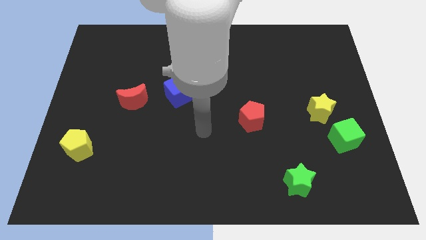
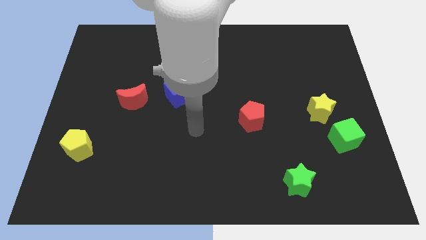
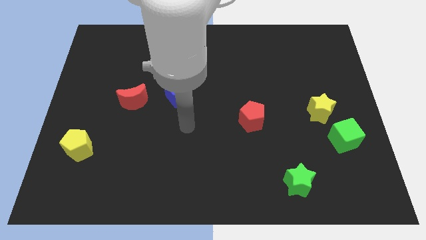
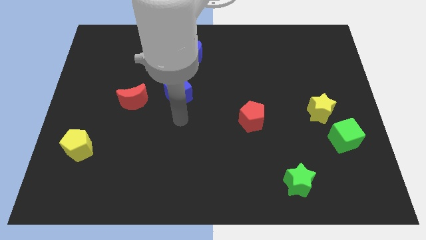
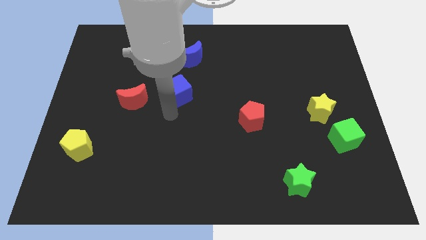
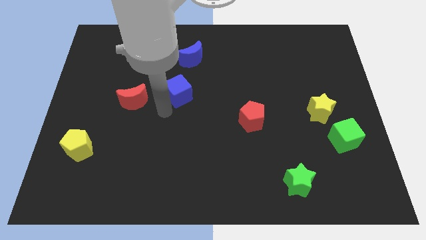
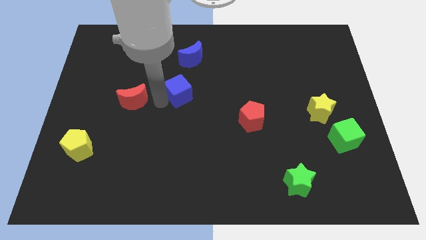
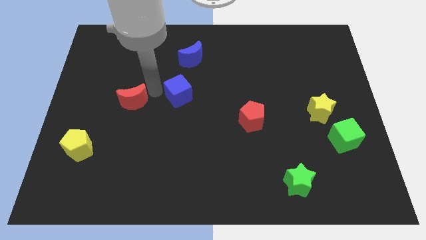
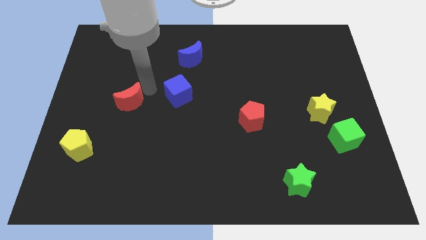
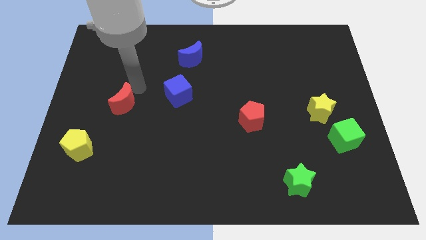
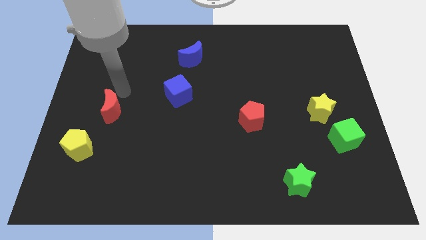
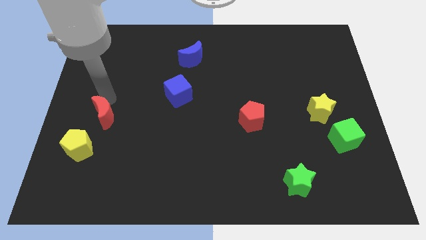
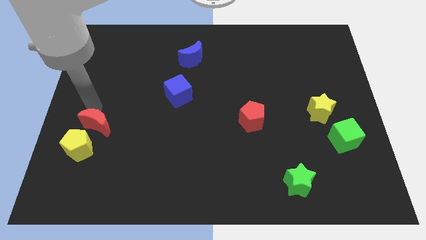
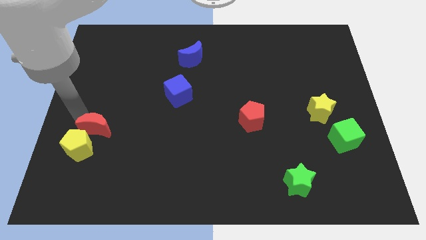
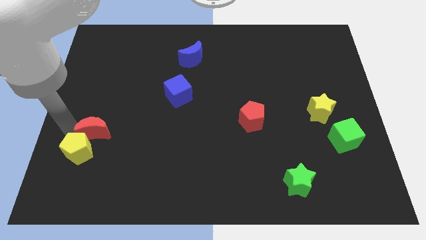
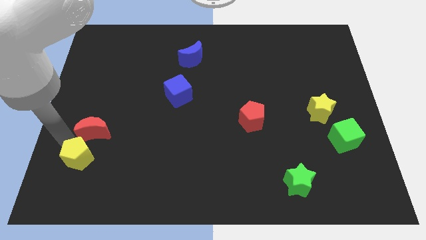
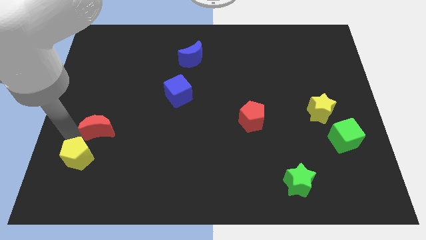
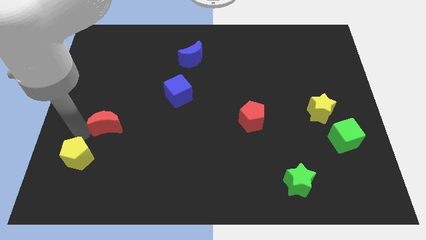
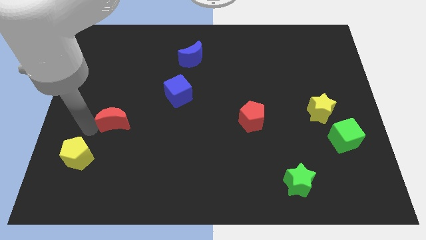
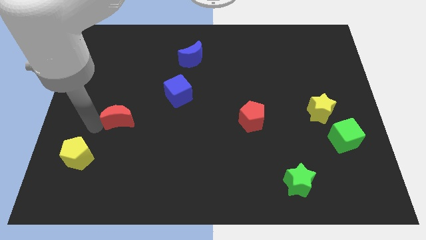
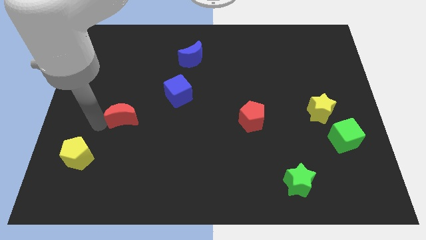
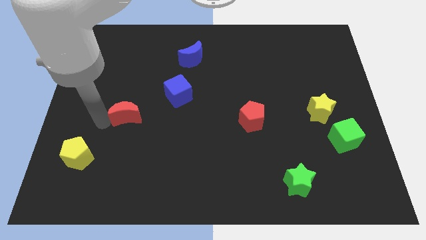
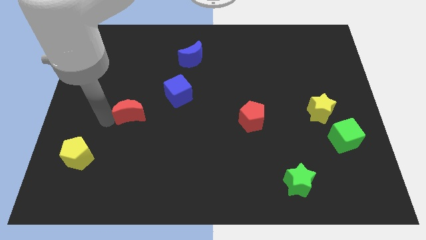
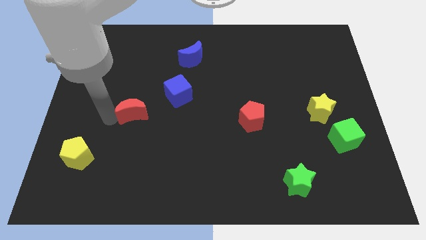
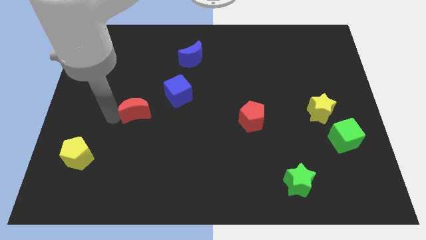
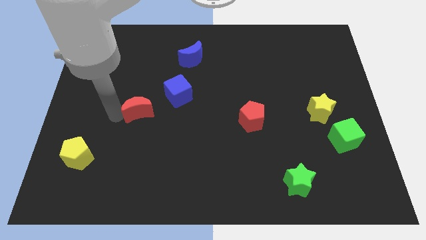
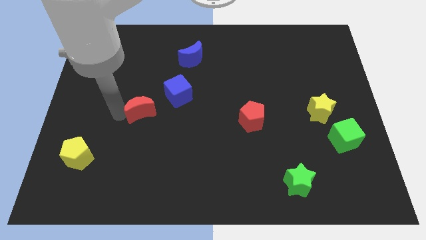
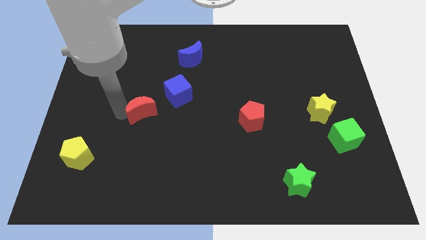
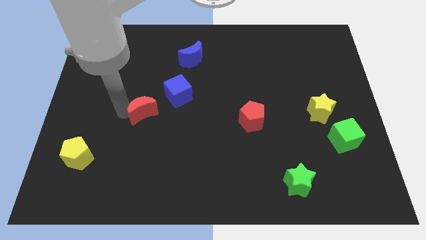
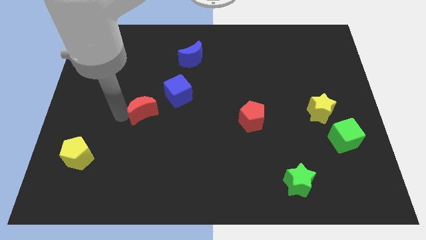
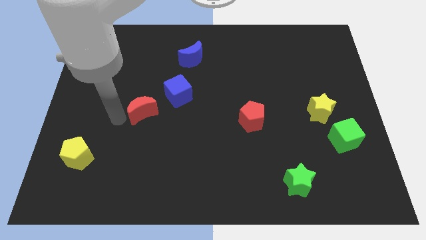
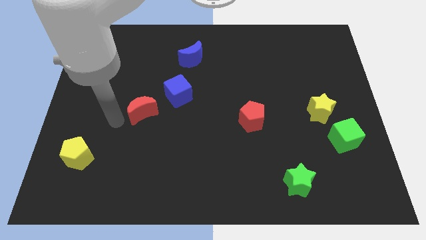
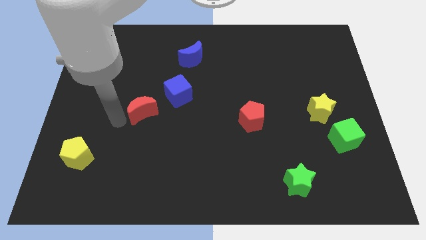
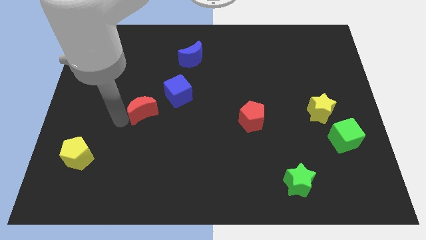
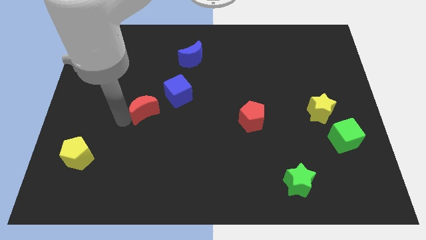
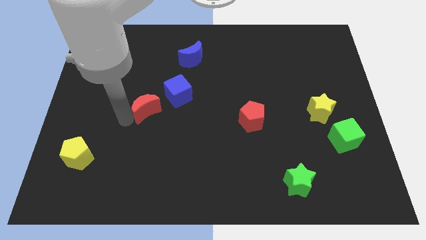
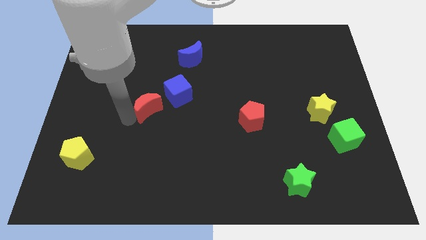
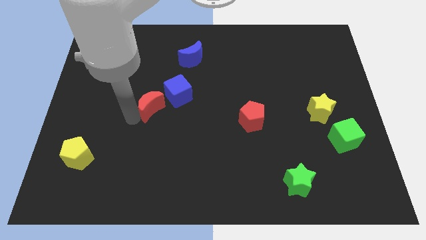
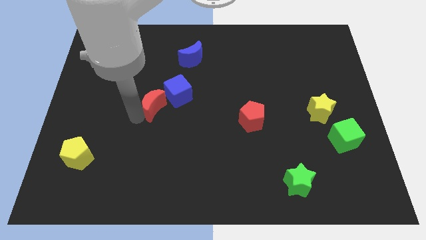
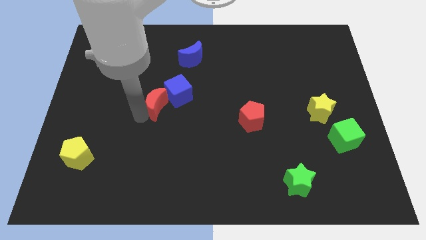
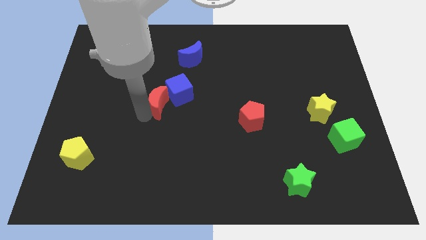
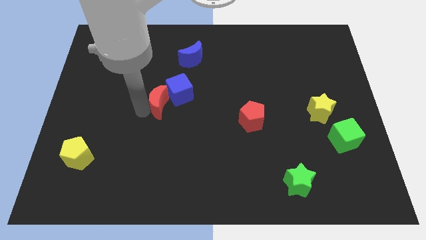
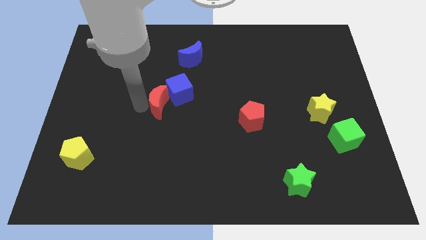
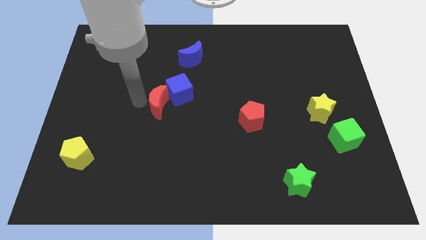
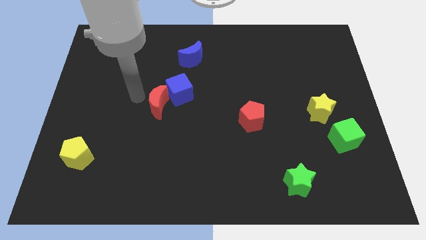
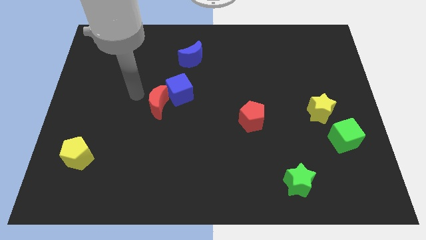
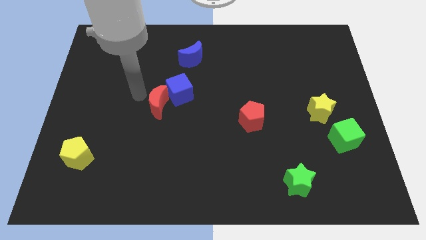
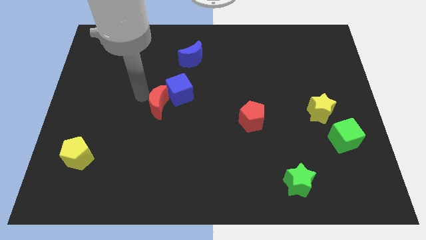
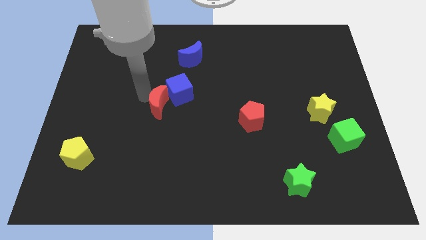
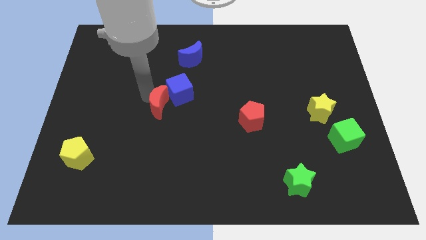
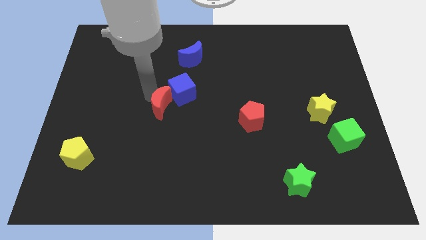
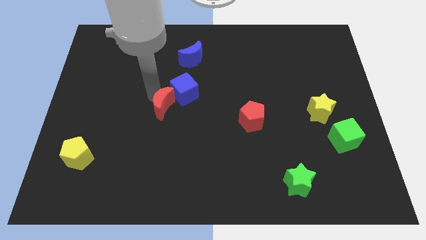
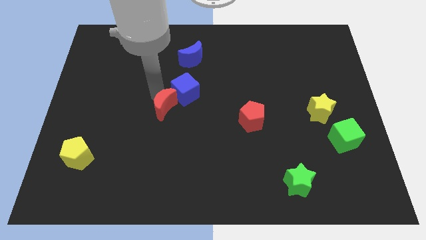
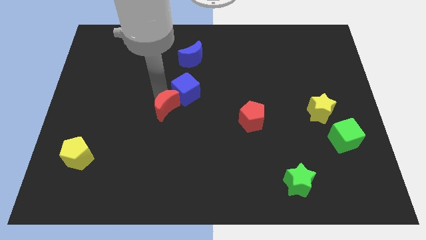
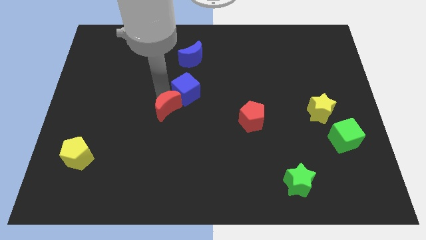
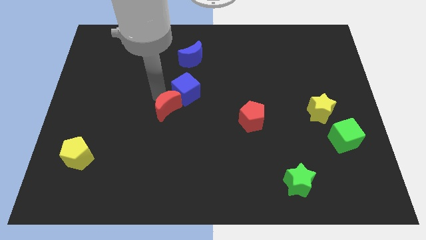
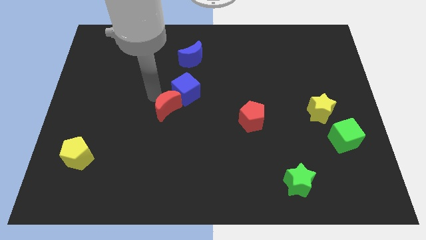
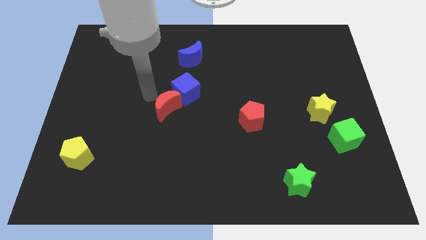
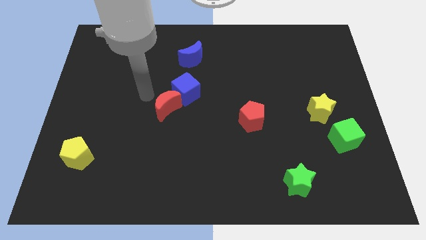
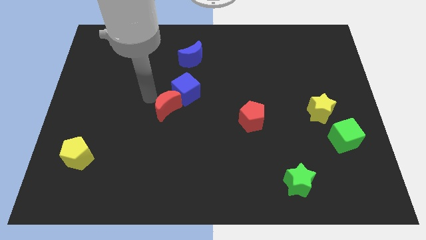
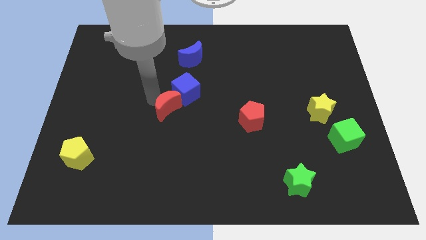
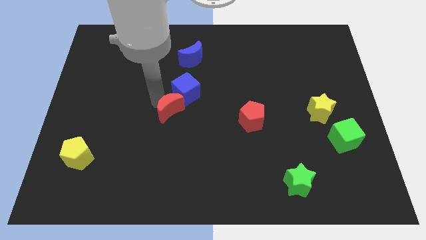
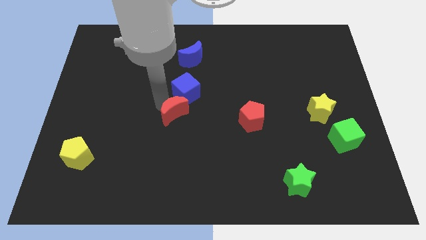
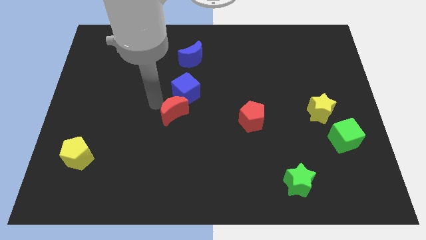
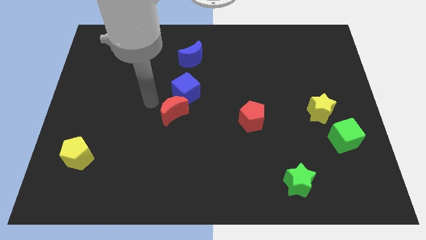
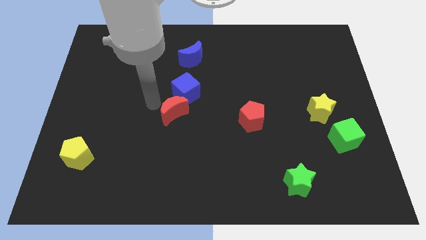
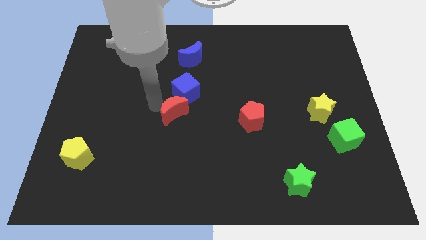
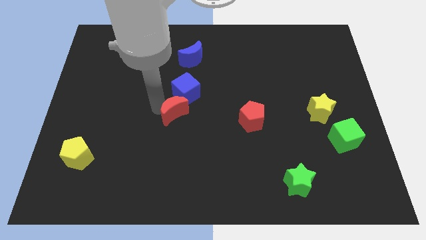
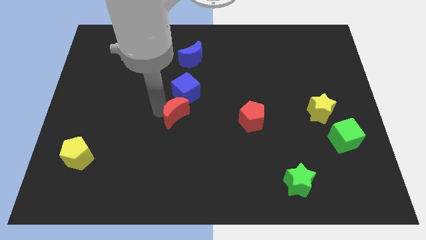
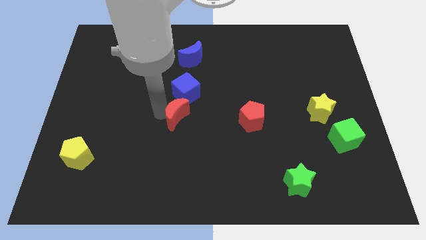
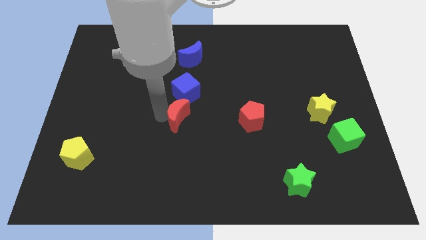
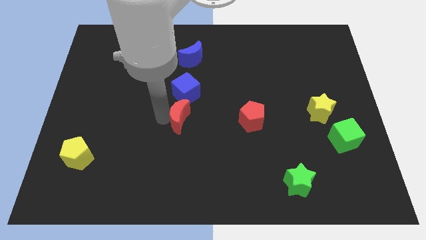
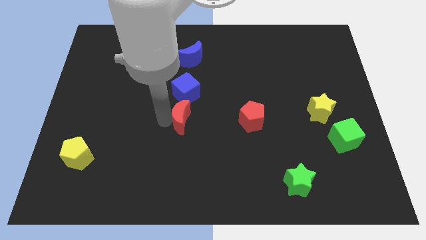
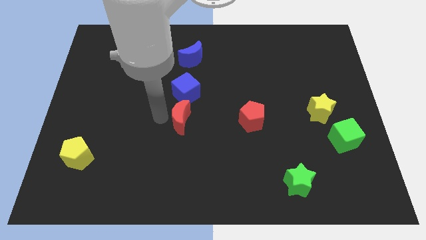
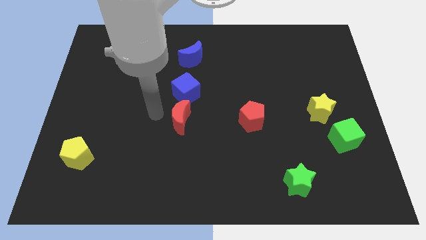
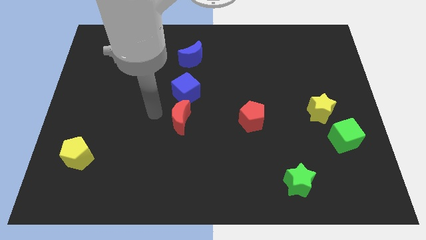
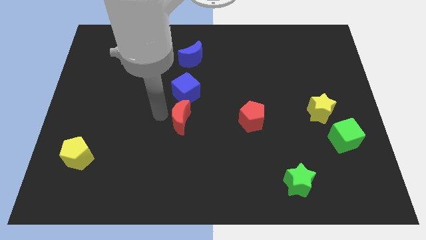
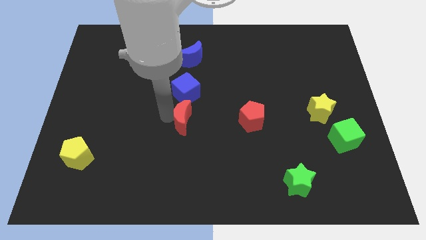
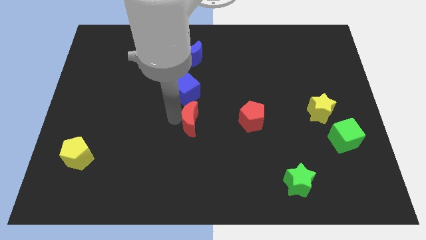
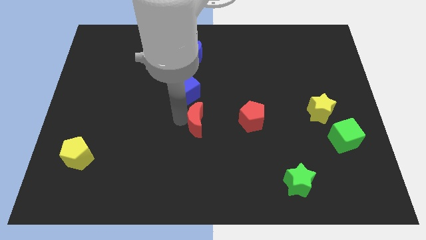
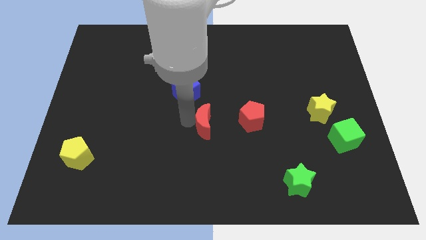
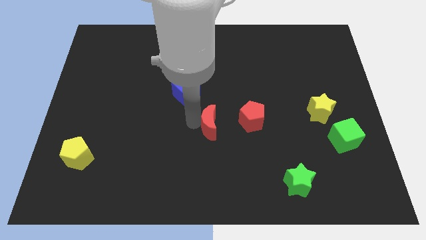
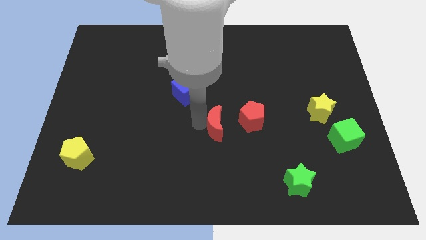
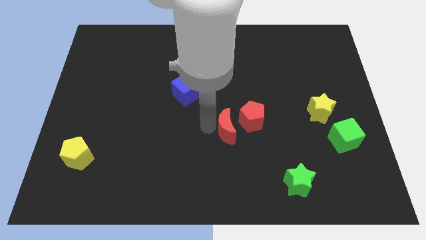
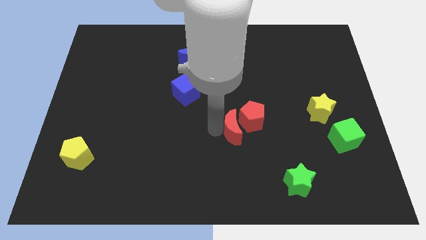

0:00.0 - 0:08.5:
push the red moon next to the red pentagon
